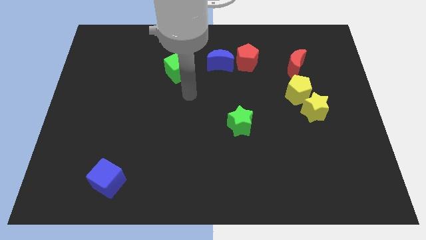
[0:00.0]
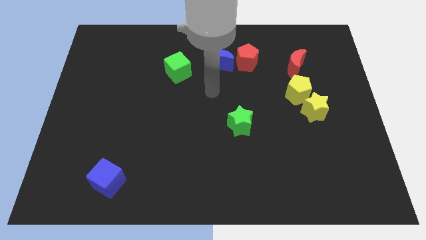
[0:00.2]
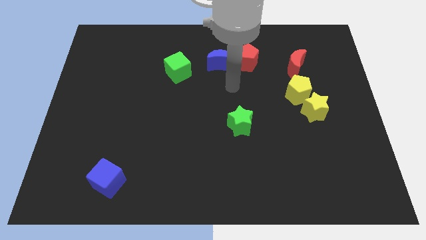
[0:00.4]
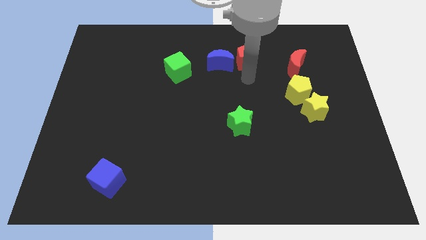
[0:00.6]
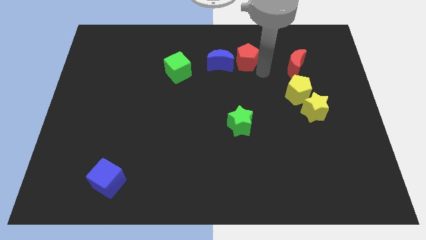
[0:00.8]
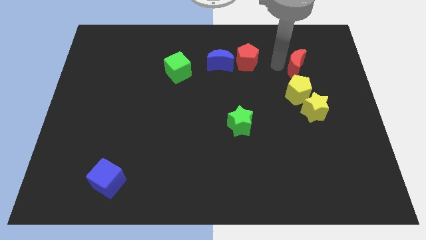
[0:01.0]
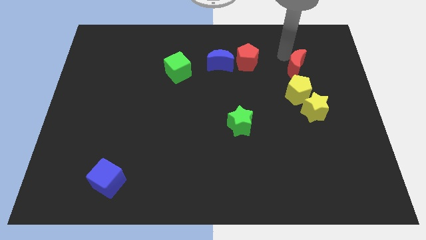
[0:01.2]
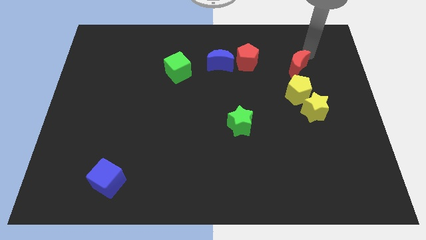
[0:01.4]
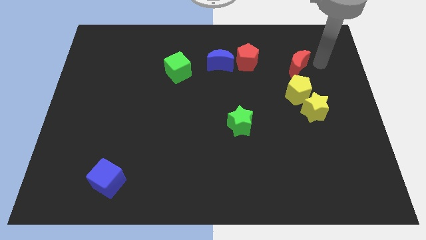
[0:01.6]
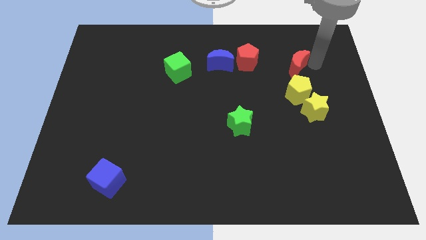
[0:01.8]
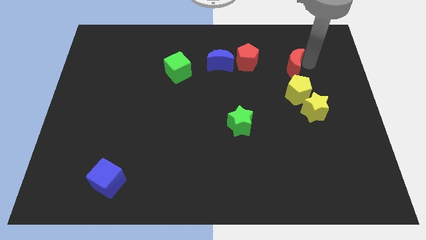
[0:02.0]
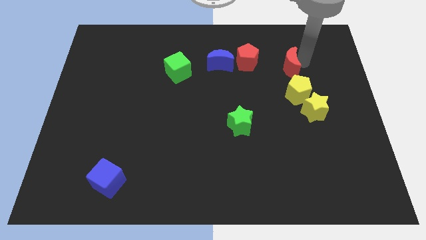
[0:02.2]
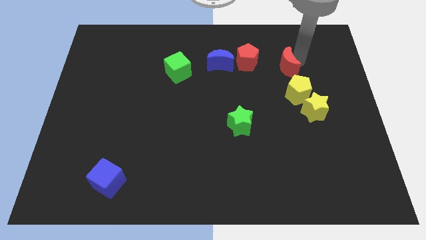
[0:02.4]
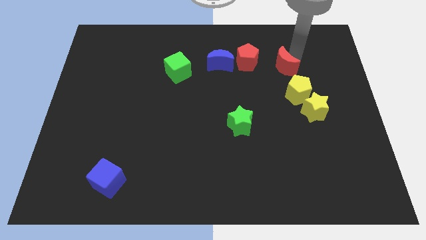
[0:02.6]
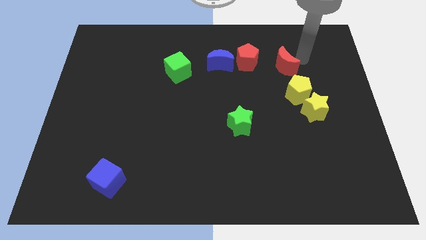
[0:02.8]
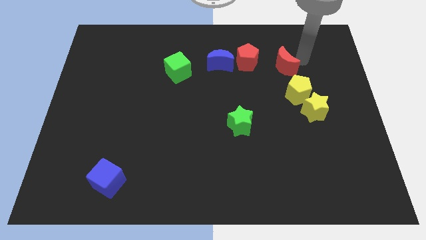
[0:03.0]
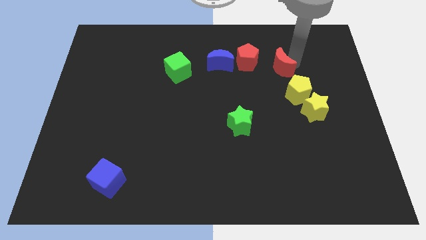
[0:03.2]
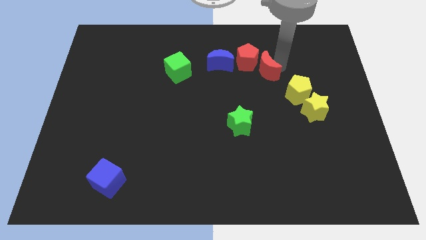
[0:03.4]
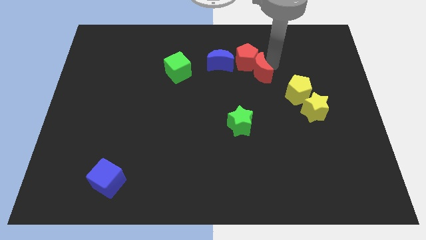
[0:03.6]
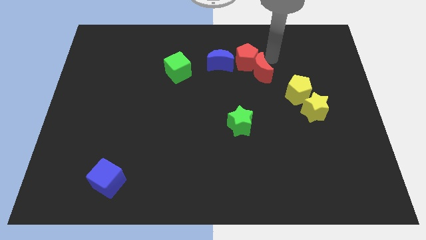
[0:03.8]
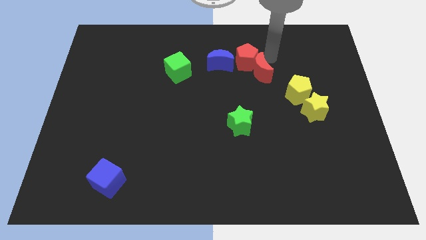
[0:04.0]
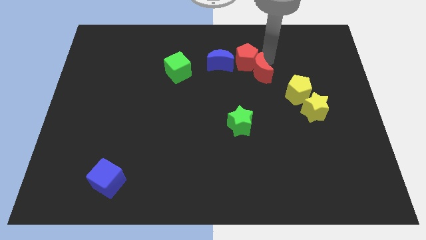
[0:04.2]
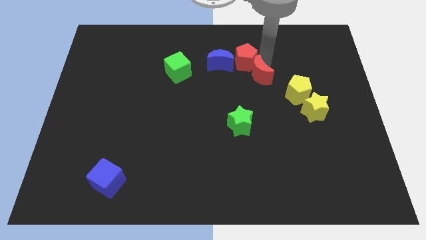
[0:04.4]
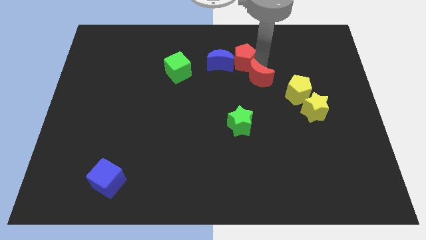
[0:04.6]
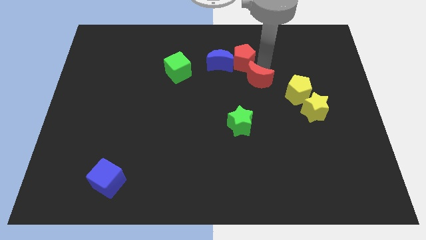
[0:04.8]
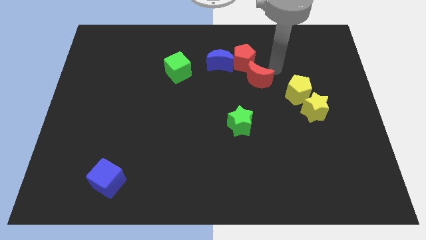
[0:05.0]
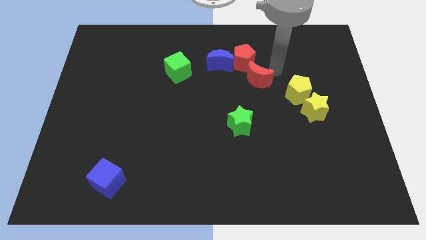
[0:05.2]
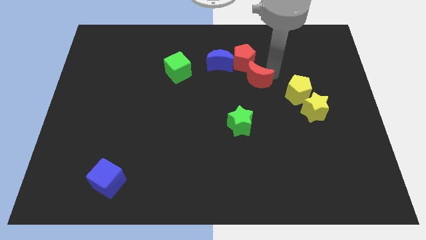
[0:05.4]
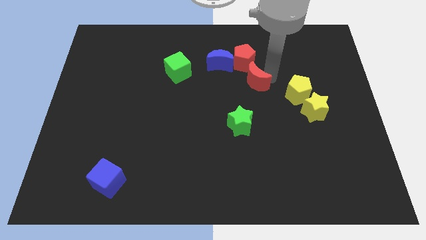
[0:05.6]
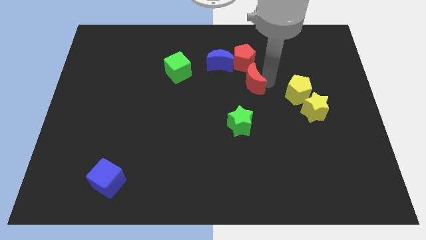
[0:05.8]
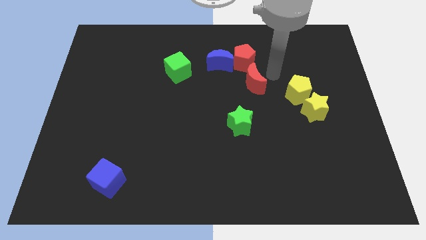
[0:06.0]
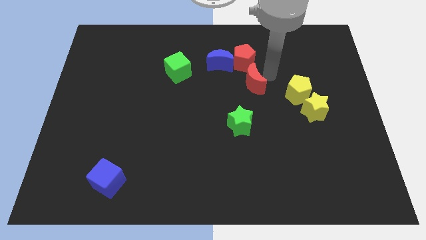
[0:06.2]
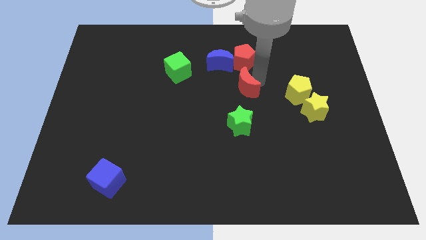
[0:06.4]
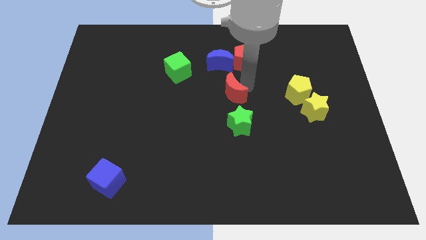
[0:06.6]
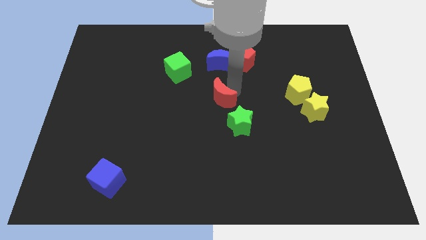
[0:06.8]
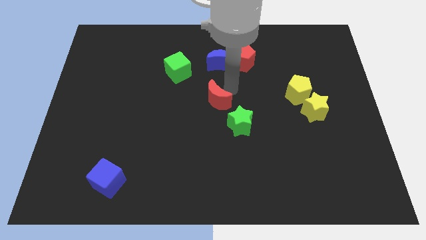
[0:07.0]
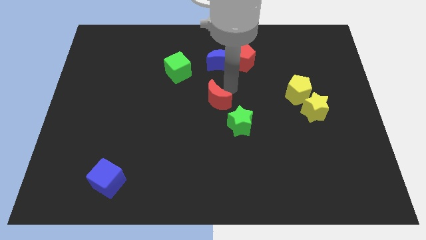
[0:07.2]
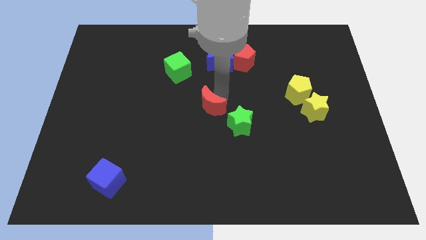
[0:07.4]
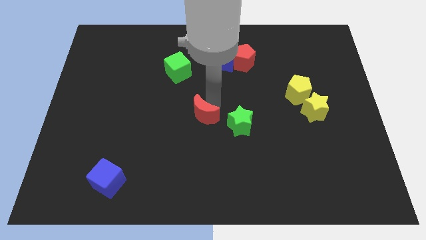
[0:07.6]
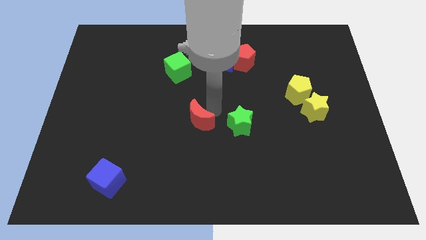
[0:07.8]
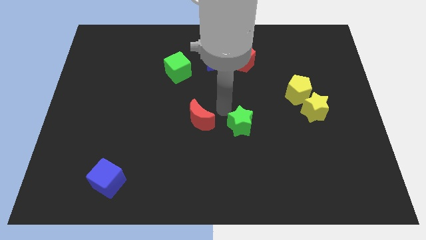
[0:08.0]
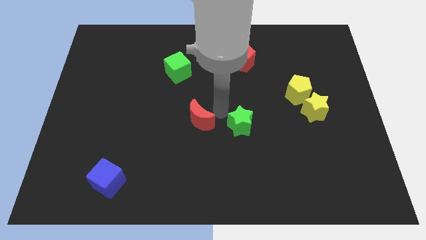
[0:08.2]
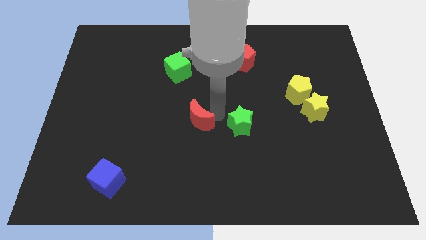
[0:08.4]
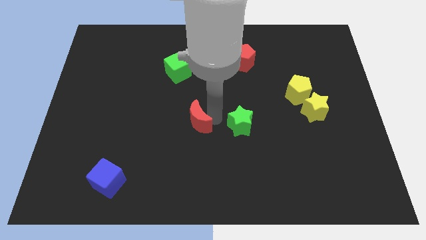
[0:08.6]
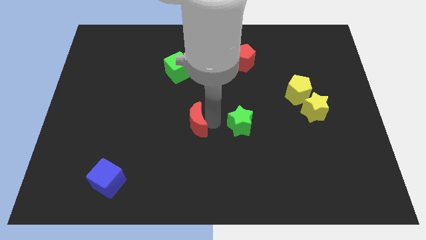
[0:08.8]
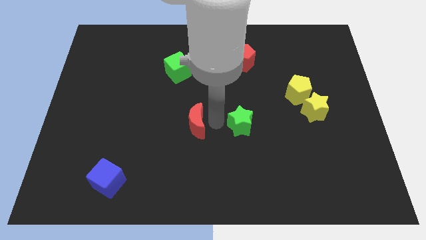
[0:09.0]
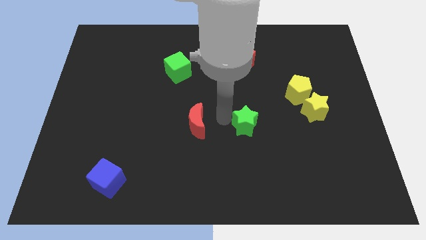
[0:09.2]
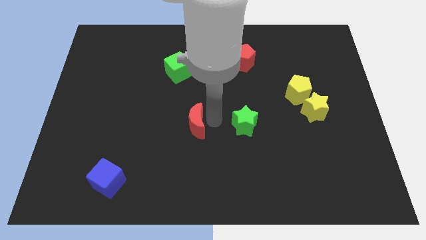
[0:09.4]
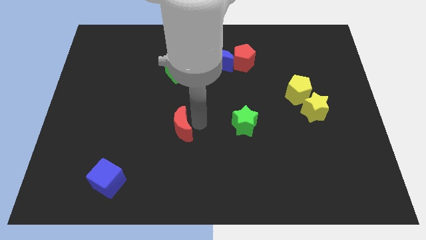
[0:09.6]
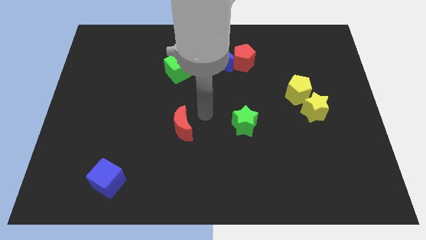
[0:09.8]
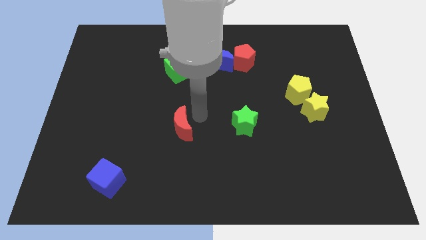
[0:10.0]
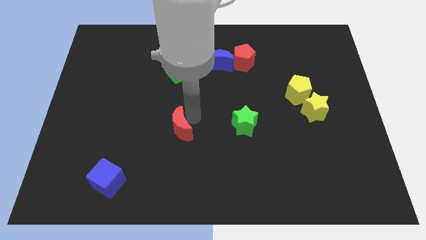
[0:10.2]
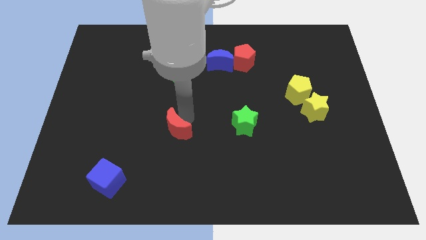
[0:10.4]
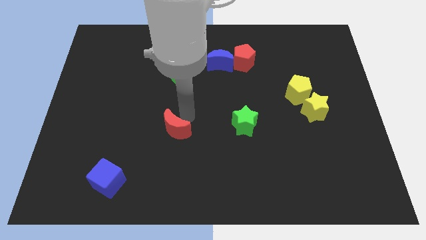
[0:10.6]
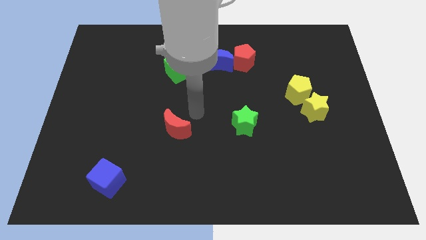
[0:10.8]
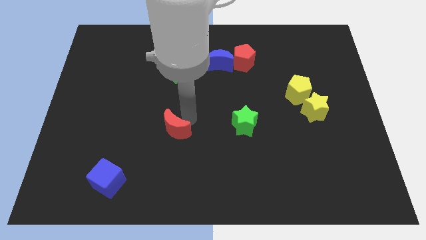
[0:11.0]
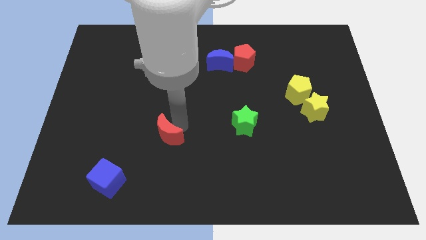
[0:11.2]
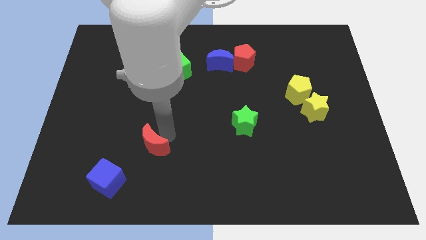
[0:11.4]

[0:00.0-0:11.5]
move the red moon to the top right of the blue cube

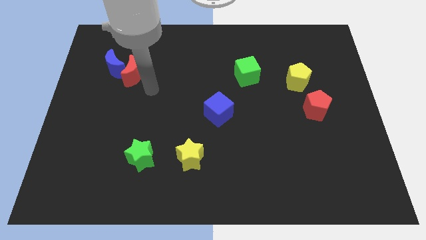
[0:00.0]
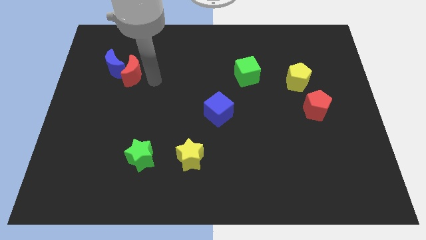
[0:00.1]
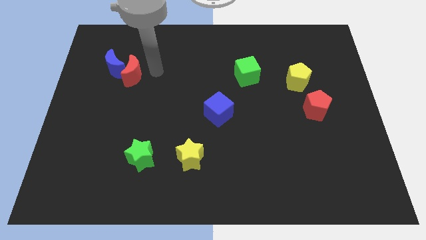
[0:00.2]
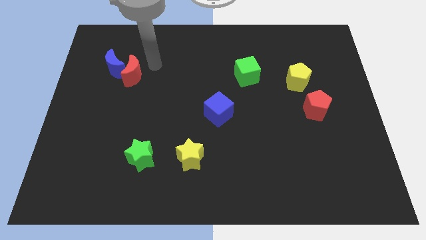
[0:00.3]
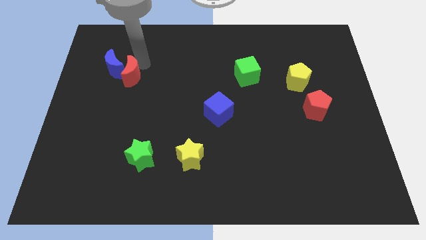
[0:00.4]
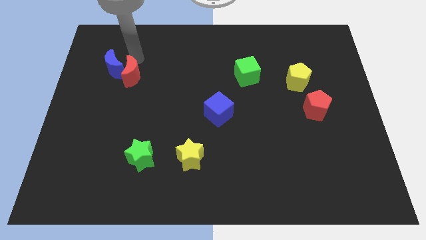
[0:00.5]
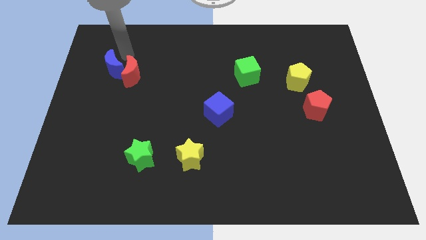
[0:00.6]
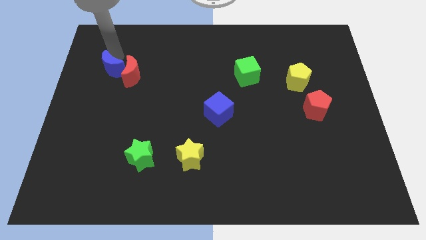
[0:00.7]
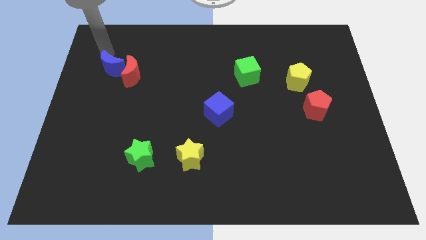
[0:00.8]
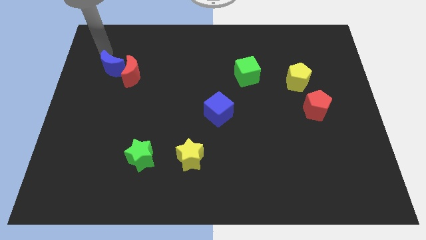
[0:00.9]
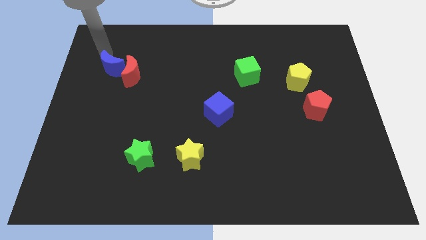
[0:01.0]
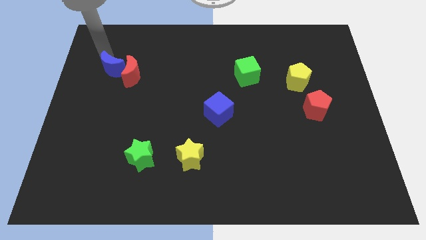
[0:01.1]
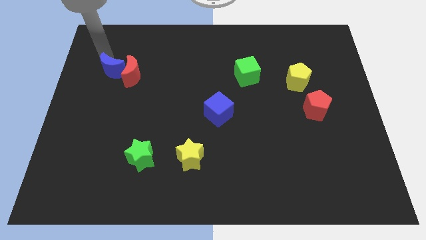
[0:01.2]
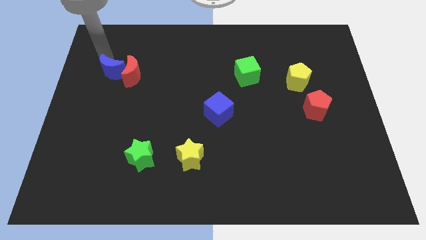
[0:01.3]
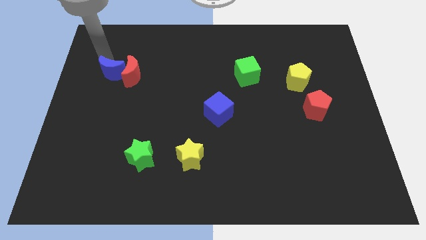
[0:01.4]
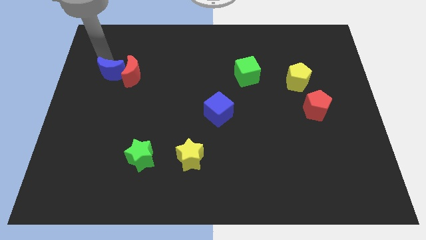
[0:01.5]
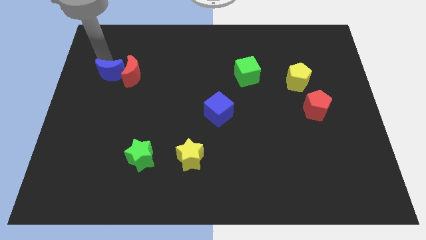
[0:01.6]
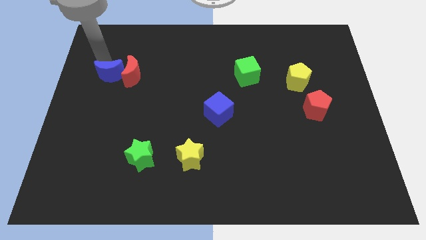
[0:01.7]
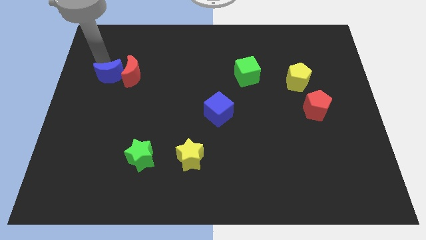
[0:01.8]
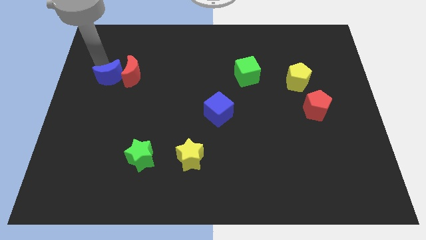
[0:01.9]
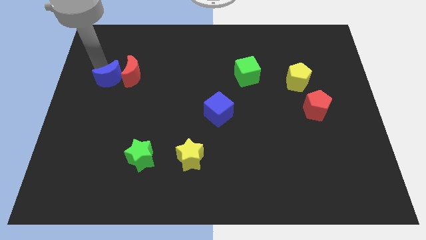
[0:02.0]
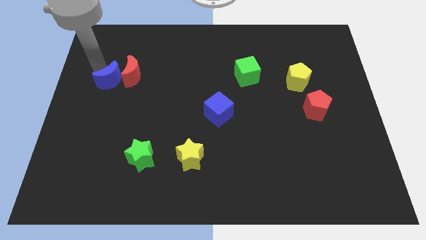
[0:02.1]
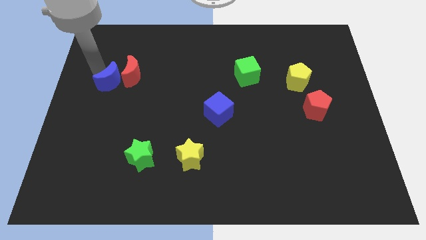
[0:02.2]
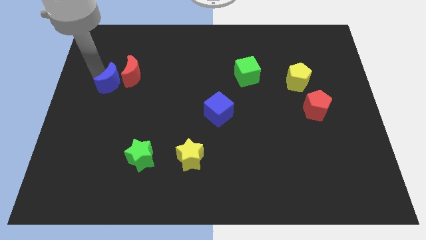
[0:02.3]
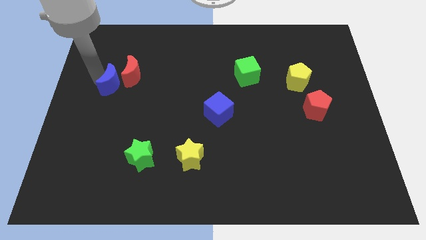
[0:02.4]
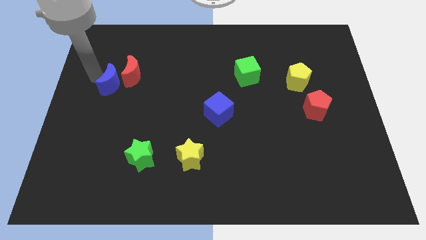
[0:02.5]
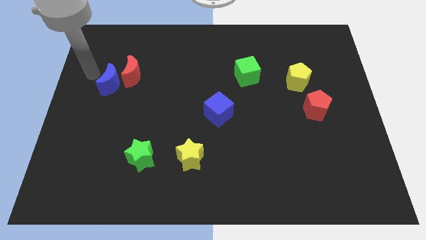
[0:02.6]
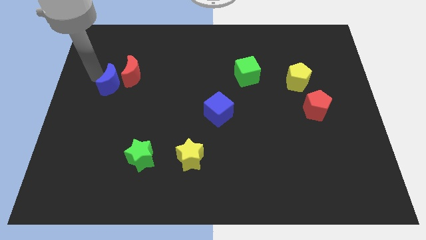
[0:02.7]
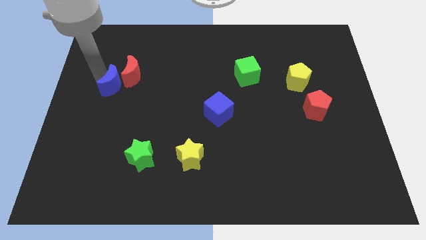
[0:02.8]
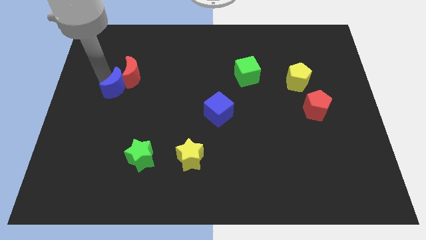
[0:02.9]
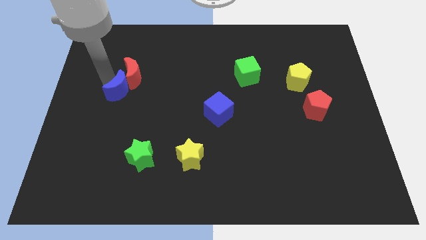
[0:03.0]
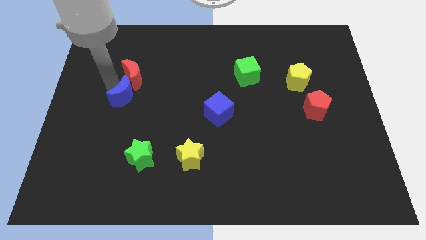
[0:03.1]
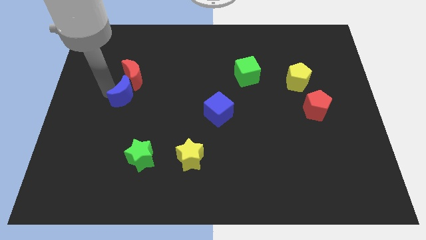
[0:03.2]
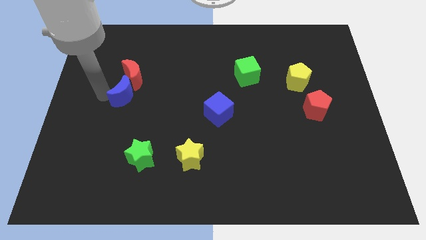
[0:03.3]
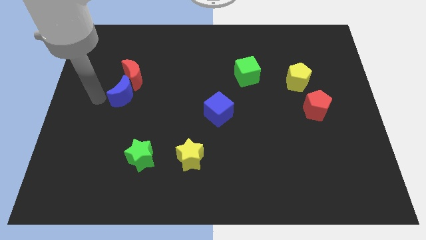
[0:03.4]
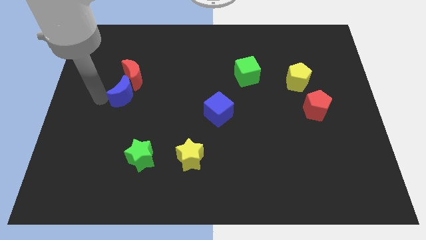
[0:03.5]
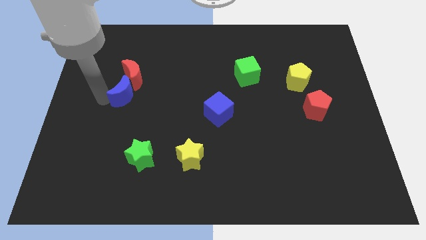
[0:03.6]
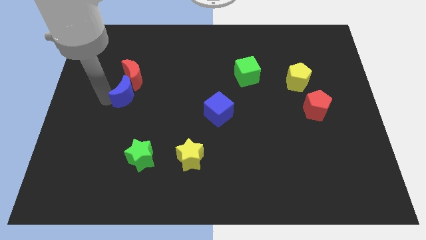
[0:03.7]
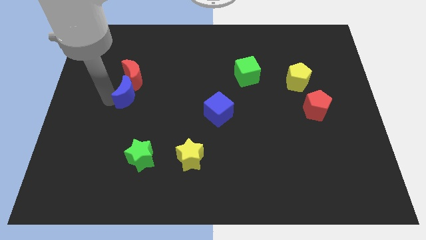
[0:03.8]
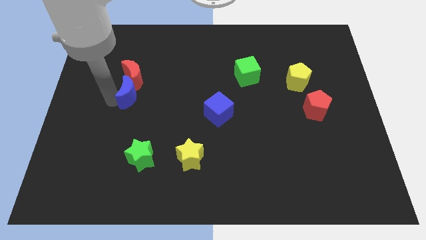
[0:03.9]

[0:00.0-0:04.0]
move the blue moon diagonally down and to the right of the red moon
